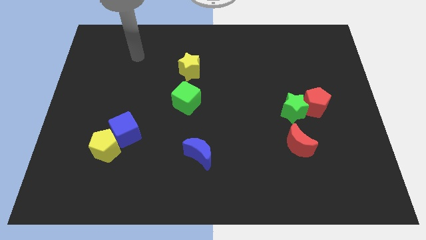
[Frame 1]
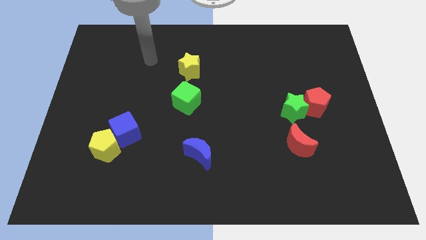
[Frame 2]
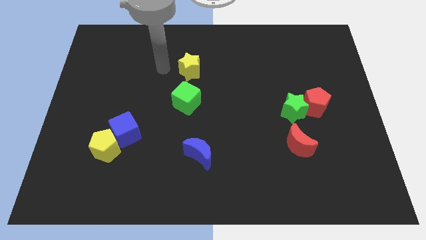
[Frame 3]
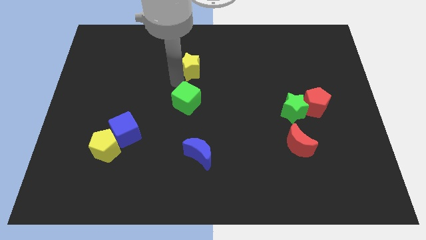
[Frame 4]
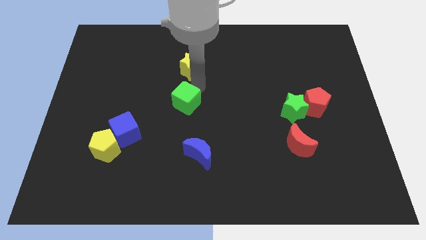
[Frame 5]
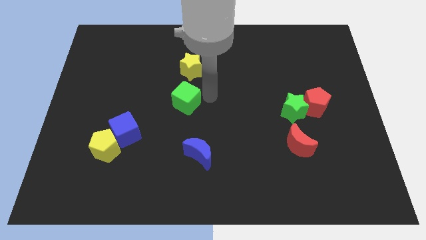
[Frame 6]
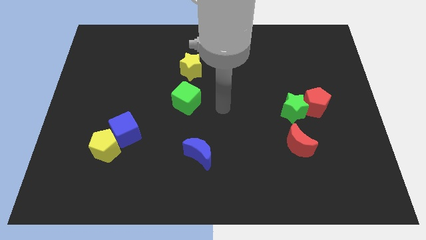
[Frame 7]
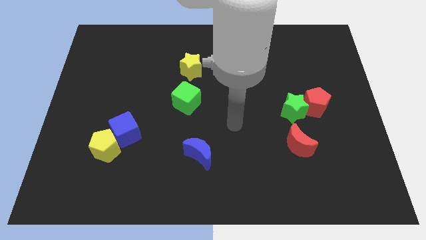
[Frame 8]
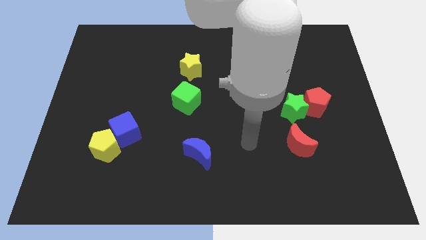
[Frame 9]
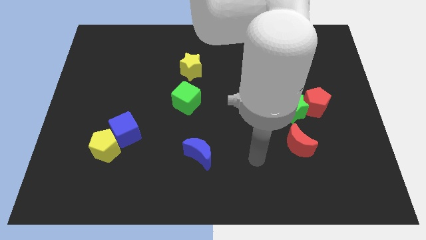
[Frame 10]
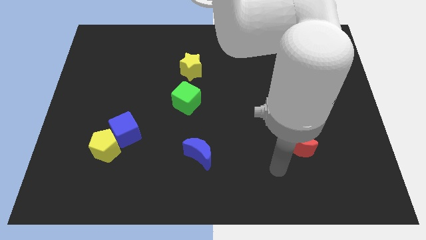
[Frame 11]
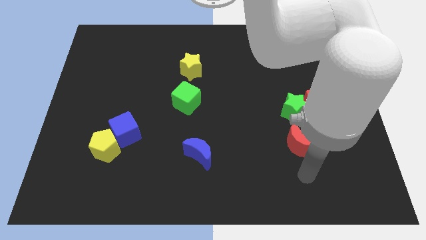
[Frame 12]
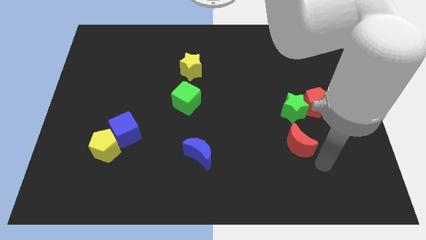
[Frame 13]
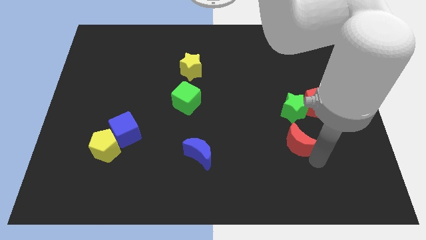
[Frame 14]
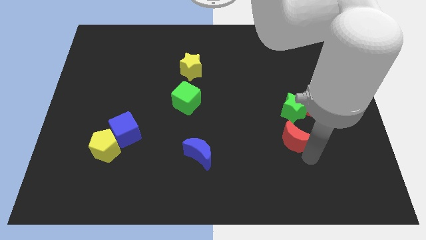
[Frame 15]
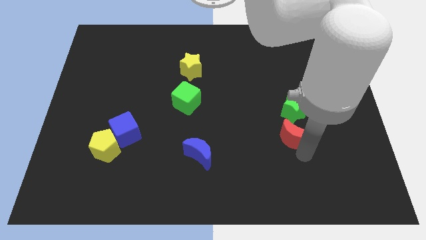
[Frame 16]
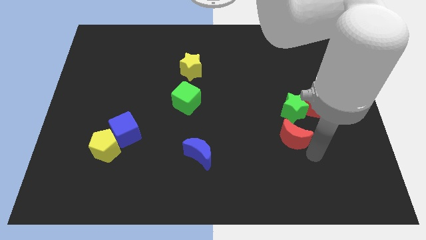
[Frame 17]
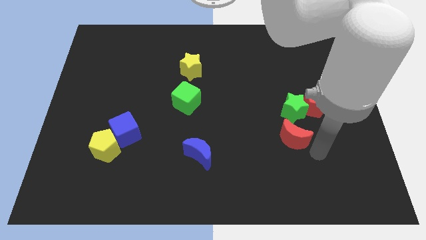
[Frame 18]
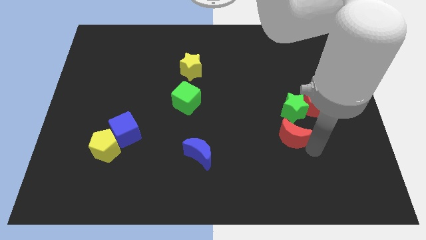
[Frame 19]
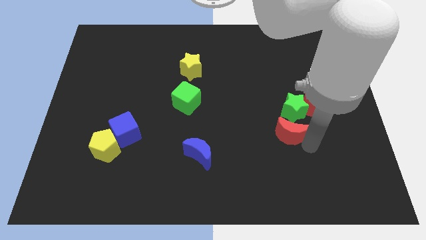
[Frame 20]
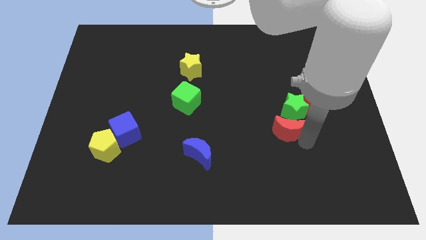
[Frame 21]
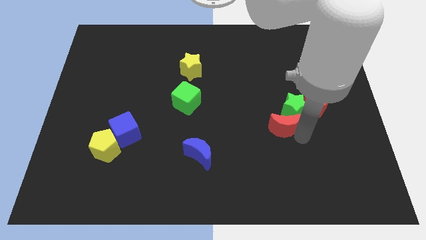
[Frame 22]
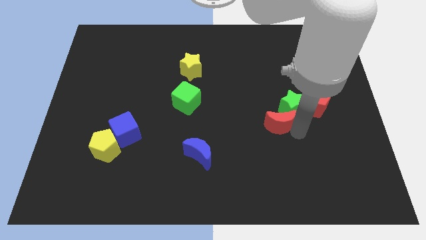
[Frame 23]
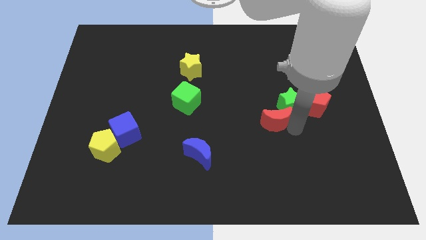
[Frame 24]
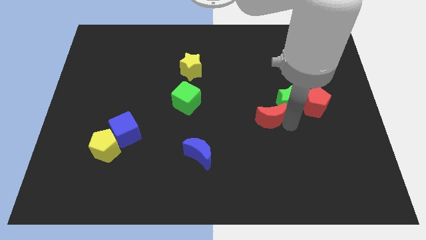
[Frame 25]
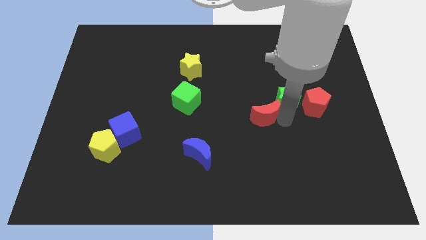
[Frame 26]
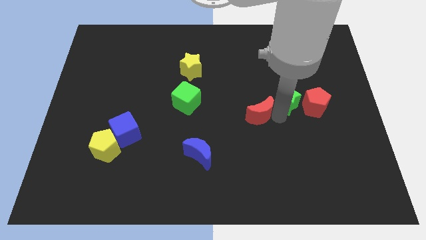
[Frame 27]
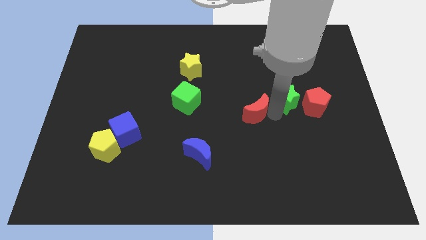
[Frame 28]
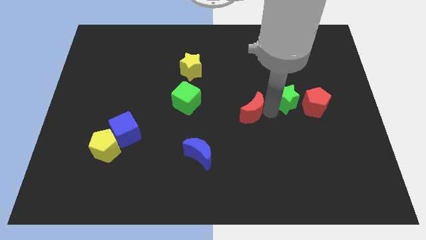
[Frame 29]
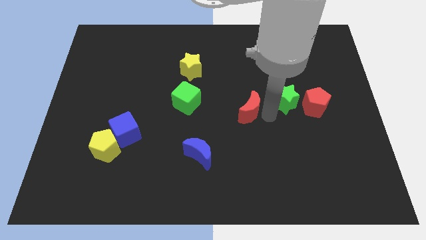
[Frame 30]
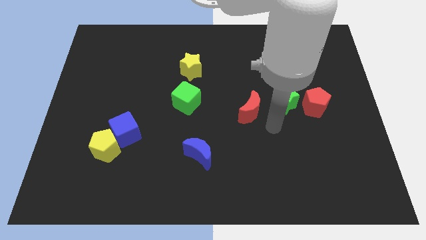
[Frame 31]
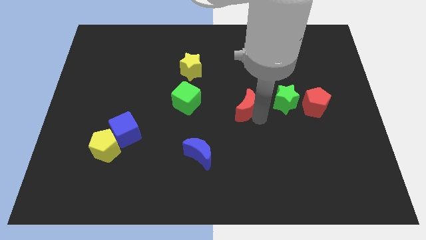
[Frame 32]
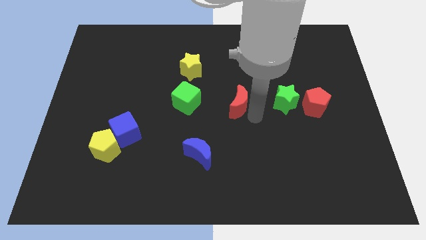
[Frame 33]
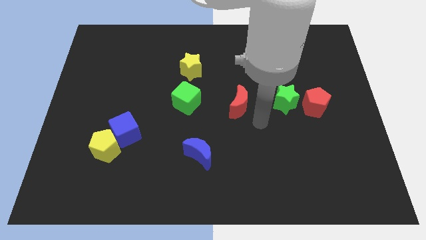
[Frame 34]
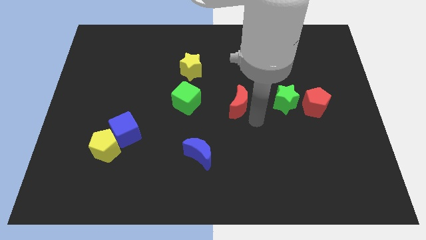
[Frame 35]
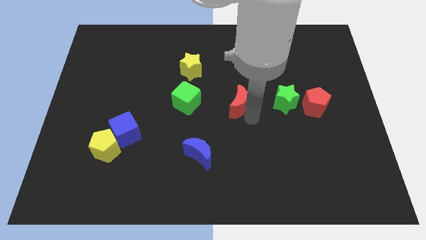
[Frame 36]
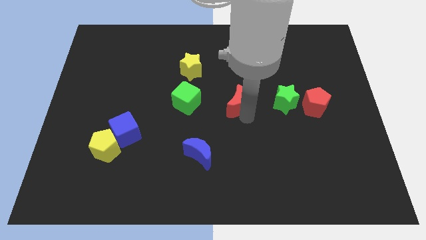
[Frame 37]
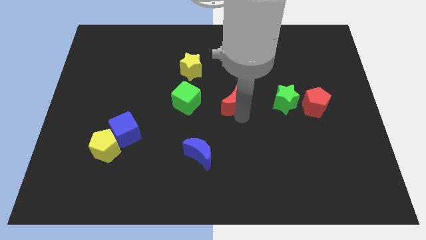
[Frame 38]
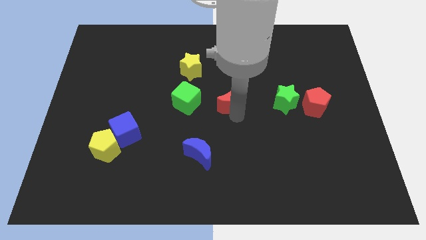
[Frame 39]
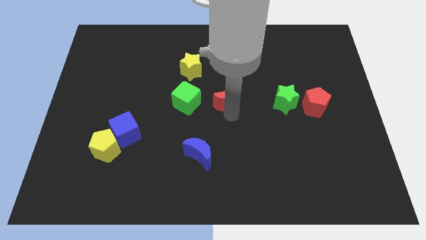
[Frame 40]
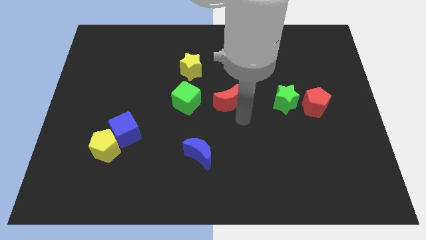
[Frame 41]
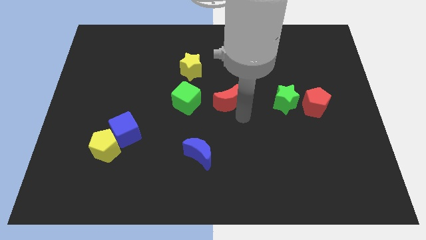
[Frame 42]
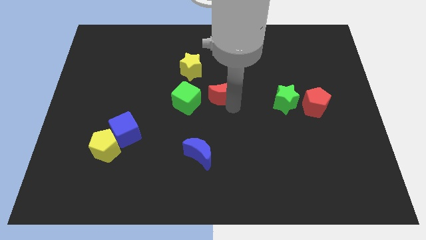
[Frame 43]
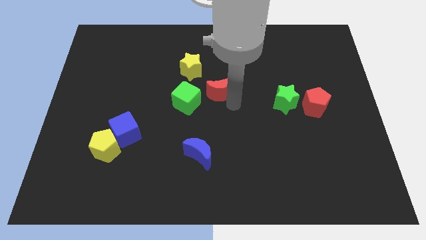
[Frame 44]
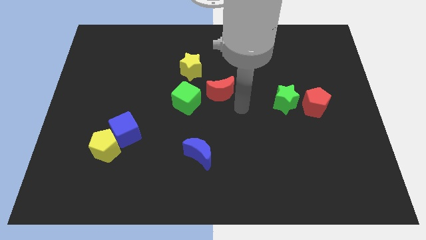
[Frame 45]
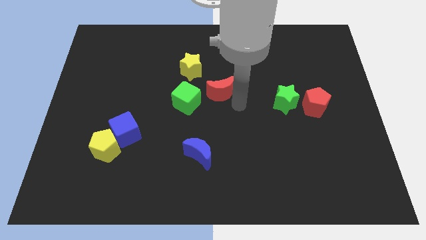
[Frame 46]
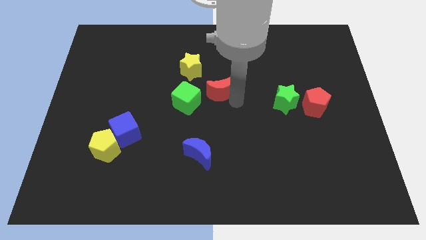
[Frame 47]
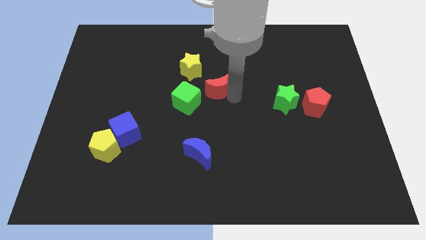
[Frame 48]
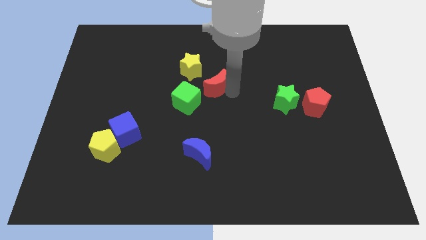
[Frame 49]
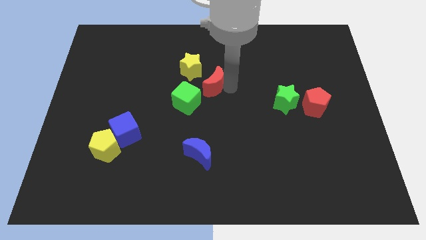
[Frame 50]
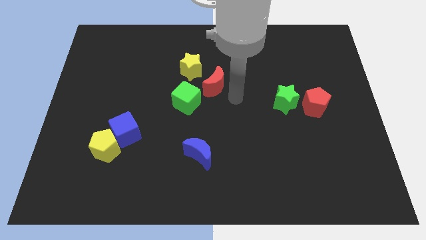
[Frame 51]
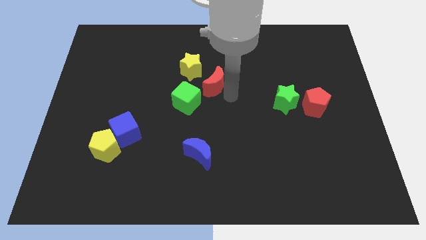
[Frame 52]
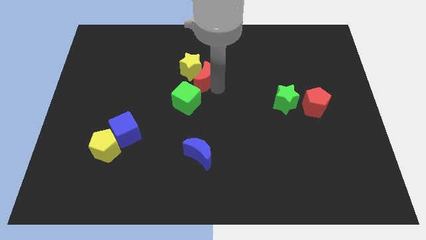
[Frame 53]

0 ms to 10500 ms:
push the red moon to the yellow star

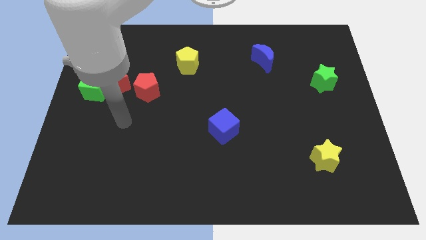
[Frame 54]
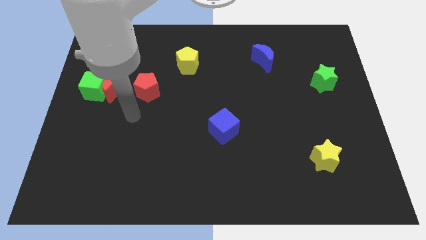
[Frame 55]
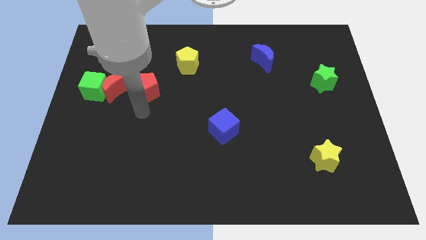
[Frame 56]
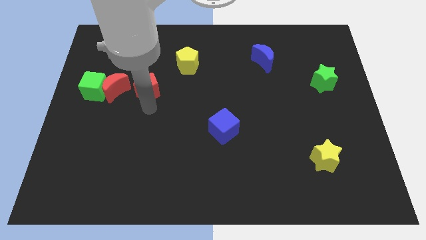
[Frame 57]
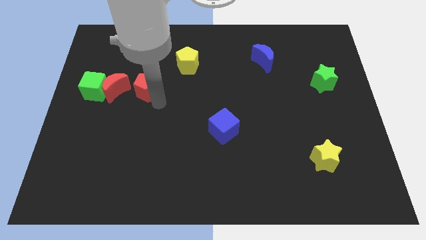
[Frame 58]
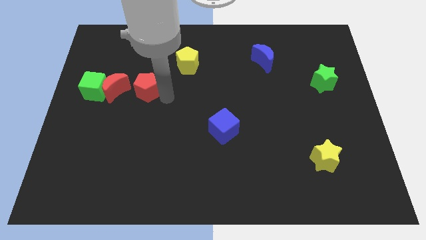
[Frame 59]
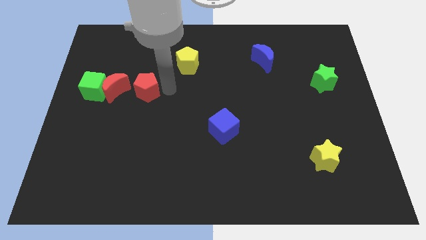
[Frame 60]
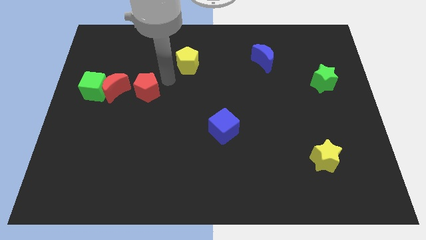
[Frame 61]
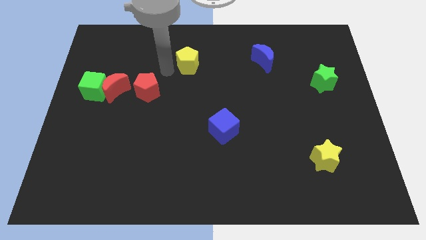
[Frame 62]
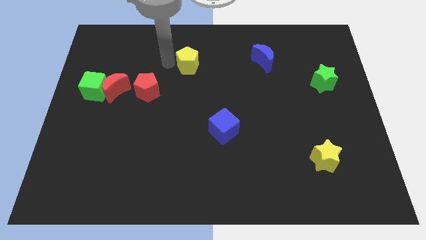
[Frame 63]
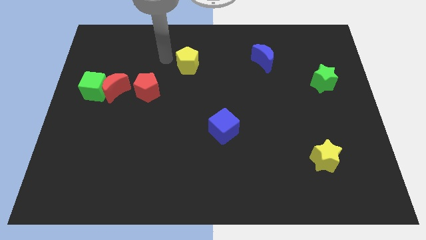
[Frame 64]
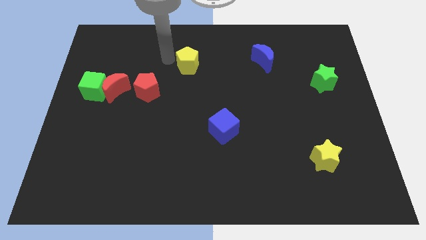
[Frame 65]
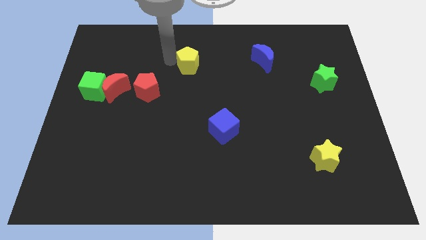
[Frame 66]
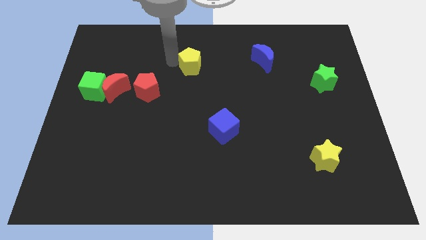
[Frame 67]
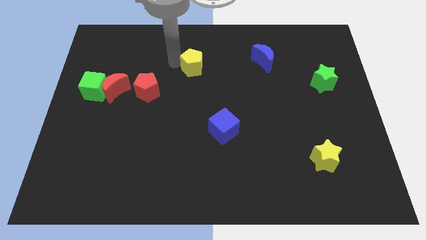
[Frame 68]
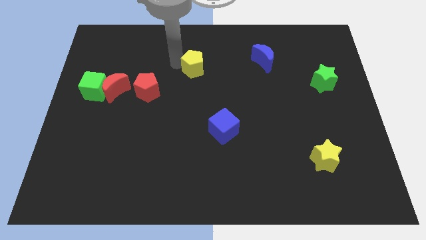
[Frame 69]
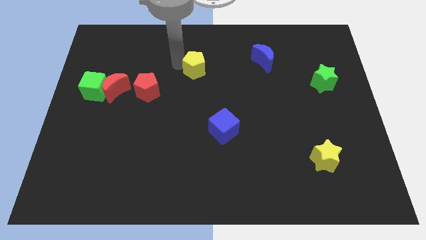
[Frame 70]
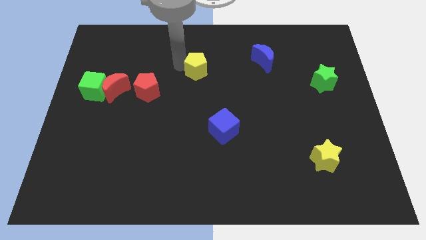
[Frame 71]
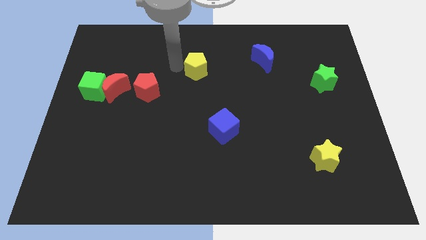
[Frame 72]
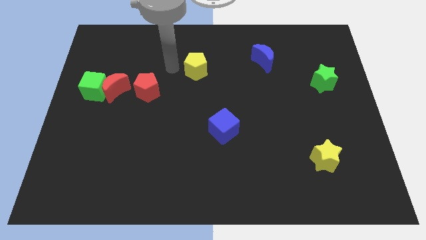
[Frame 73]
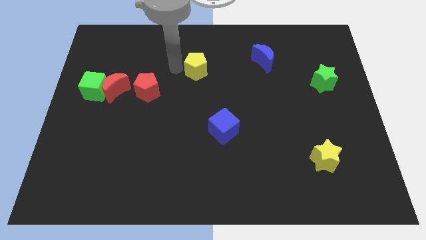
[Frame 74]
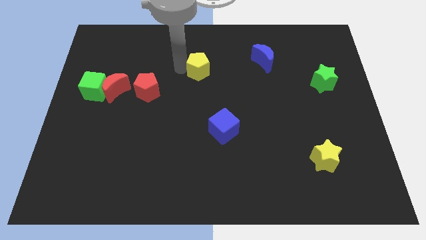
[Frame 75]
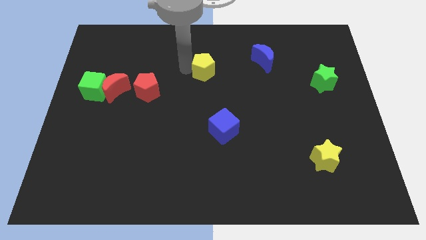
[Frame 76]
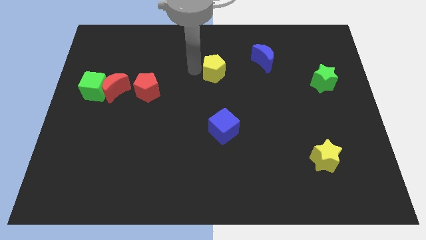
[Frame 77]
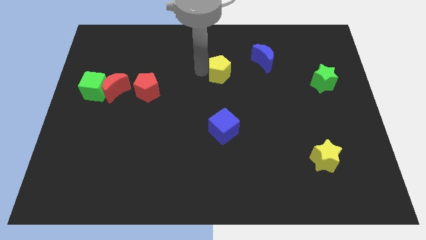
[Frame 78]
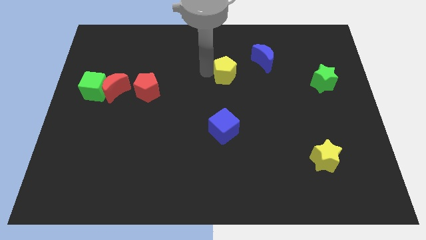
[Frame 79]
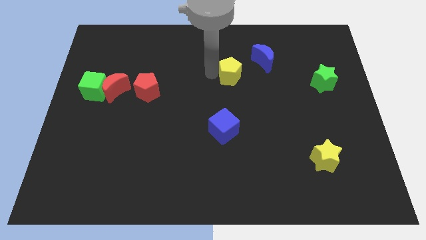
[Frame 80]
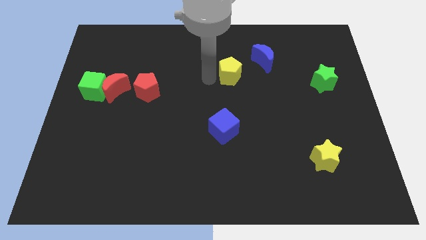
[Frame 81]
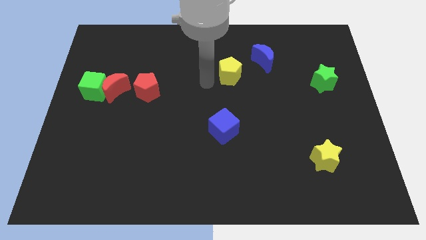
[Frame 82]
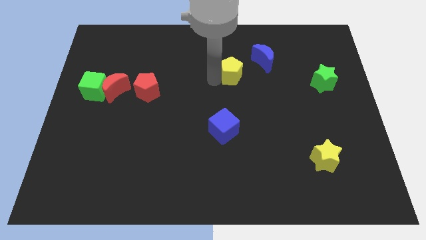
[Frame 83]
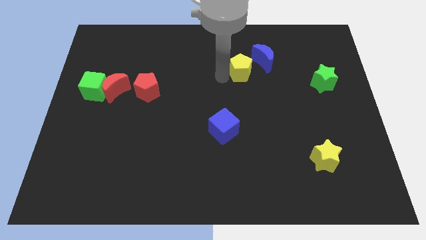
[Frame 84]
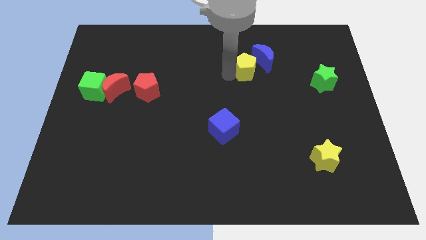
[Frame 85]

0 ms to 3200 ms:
move the yellow pentagon next to the blue moon
